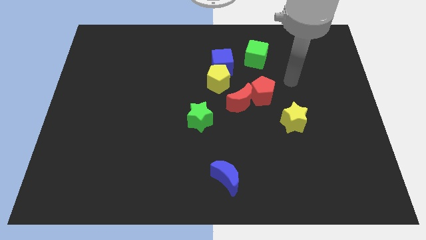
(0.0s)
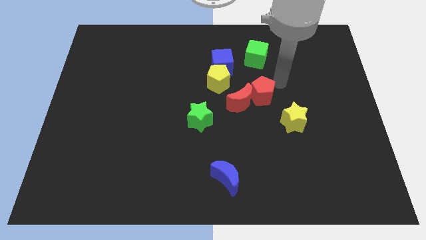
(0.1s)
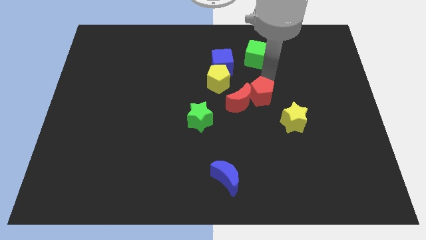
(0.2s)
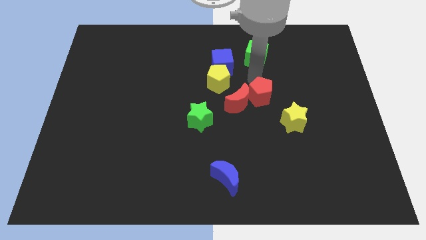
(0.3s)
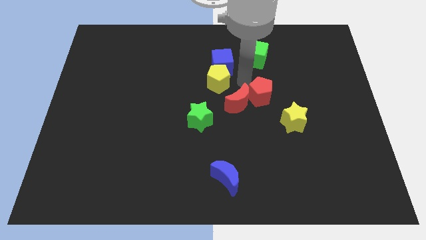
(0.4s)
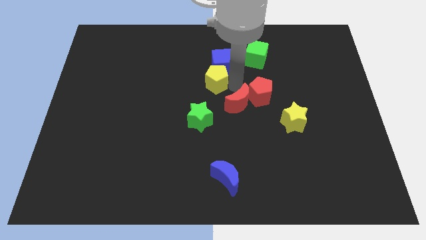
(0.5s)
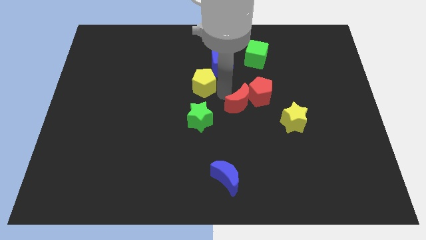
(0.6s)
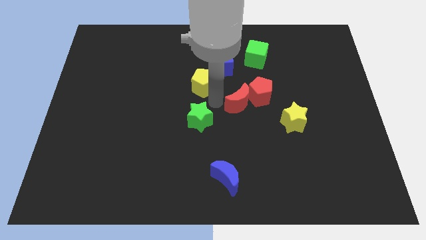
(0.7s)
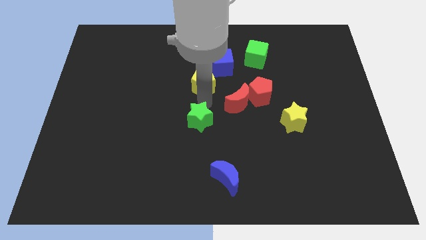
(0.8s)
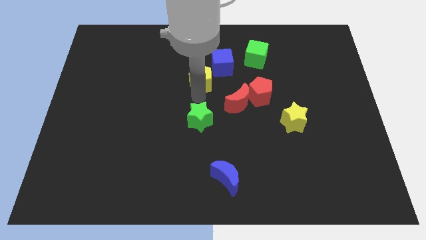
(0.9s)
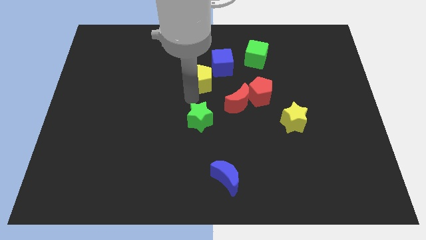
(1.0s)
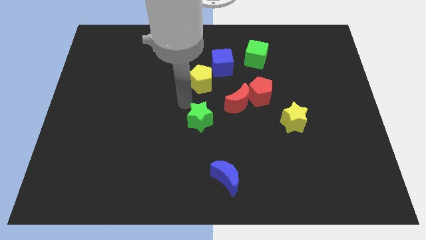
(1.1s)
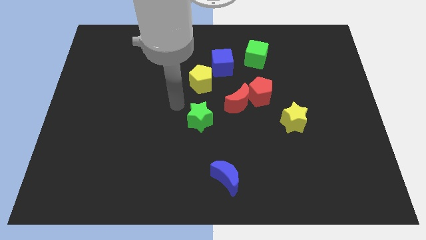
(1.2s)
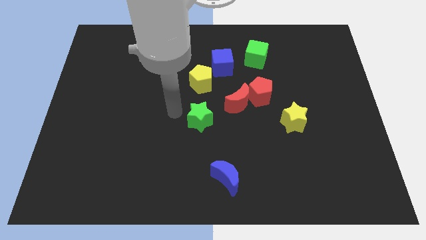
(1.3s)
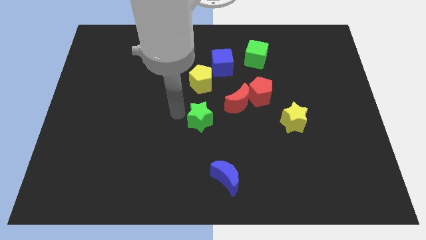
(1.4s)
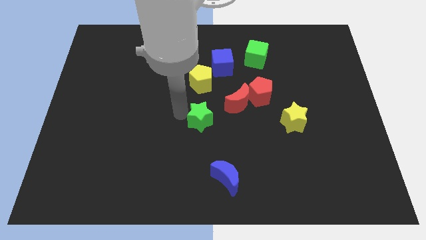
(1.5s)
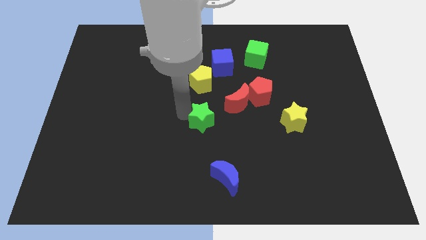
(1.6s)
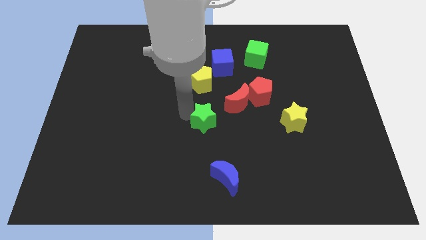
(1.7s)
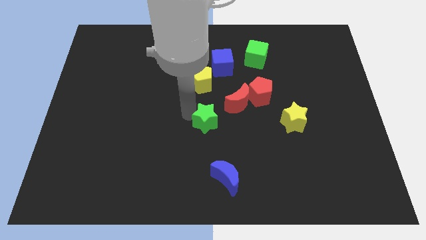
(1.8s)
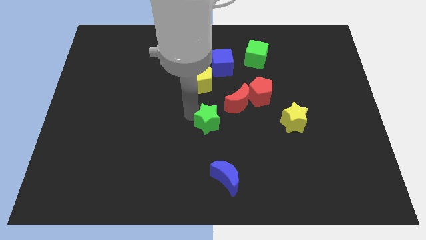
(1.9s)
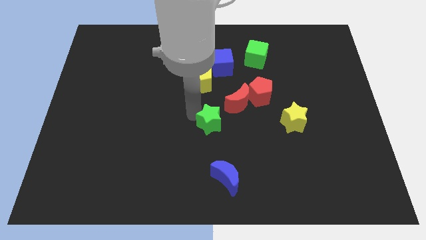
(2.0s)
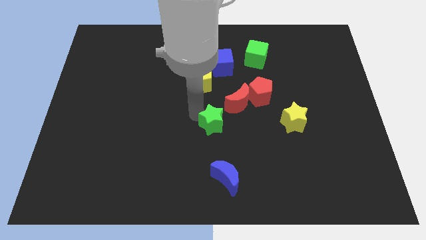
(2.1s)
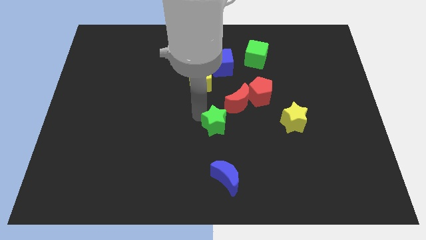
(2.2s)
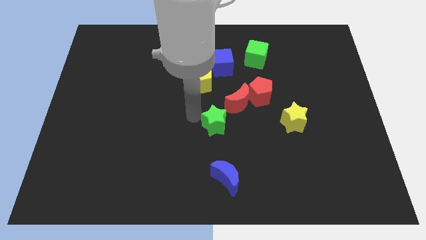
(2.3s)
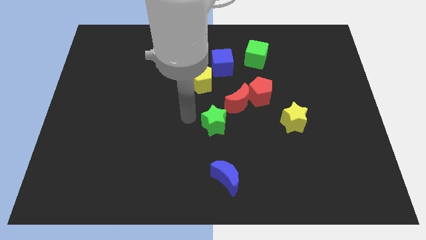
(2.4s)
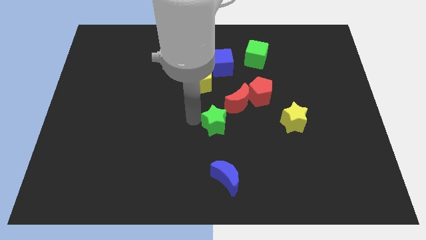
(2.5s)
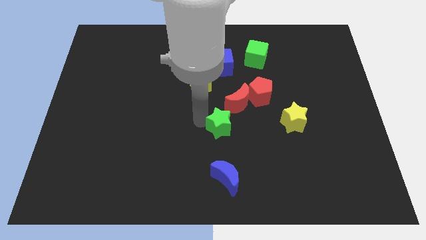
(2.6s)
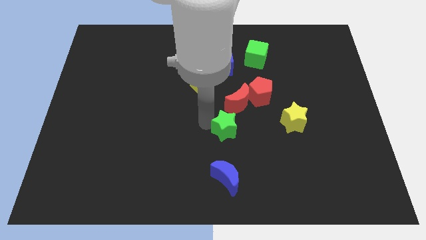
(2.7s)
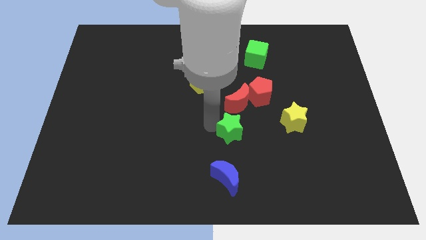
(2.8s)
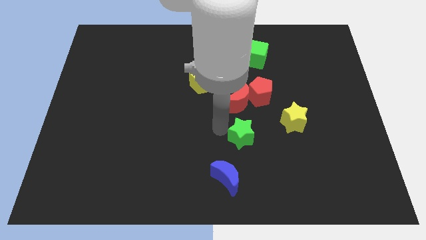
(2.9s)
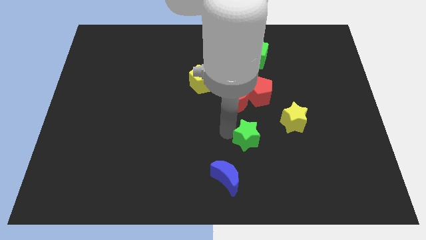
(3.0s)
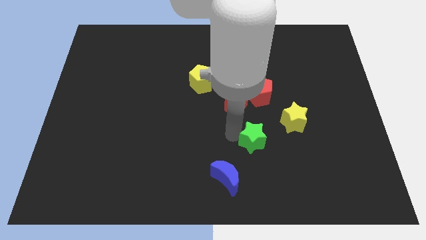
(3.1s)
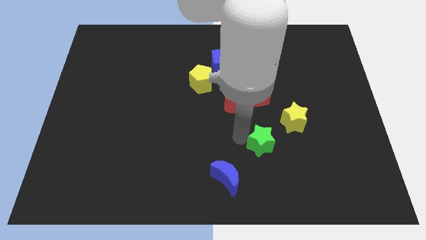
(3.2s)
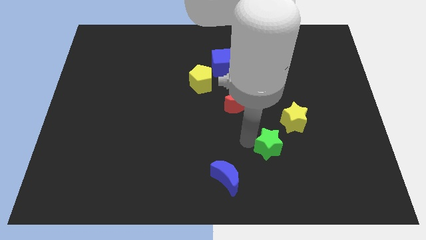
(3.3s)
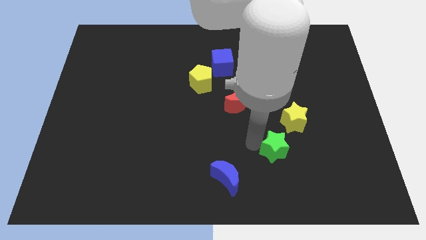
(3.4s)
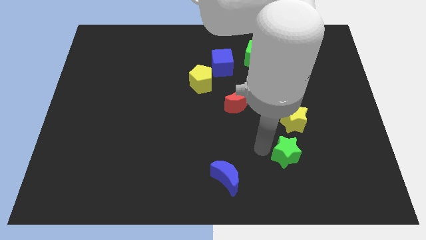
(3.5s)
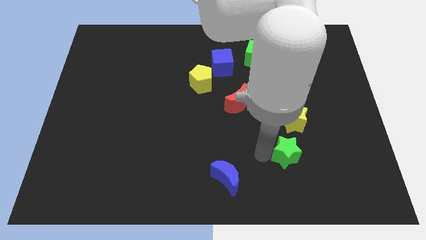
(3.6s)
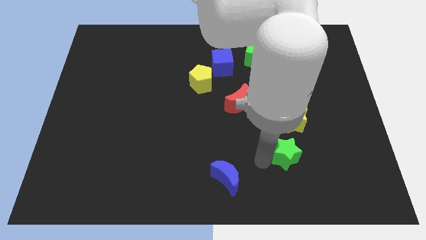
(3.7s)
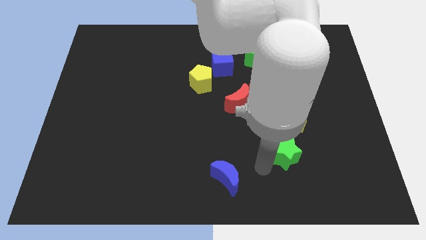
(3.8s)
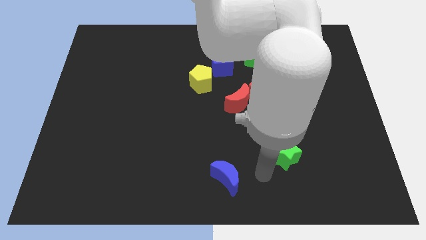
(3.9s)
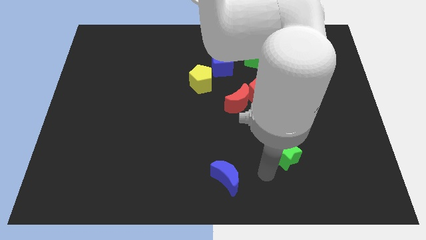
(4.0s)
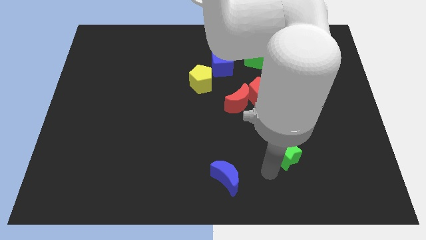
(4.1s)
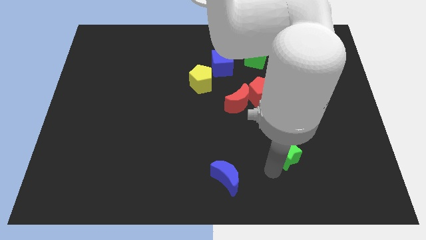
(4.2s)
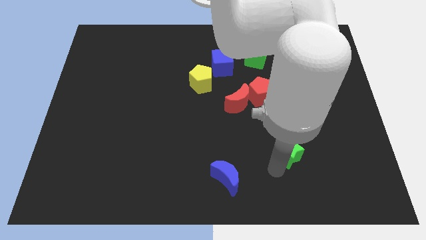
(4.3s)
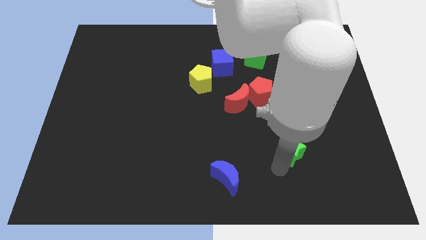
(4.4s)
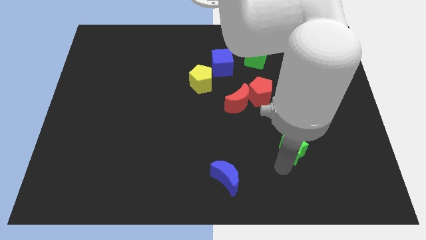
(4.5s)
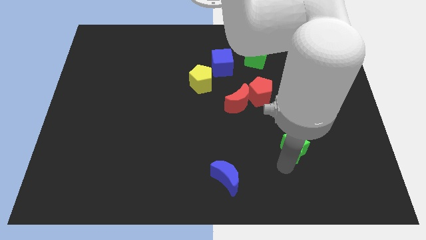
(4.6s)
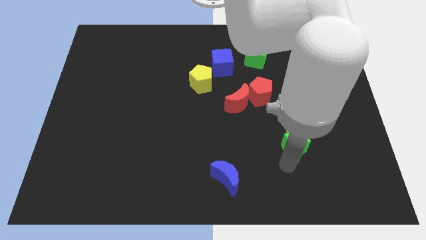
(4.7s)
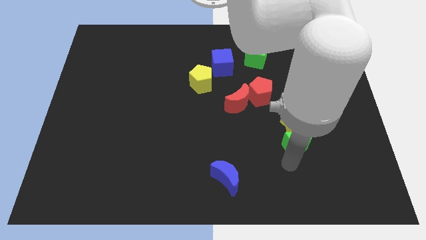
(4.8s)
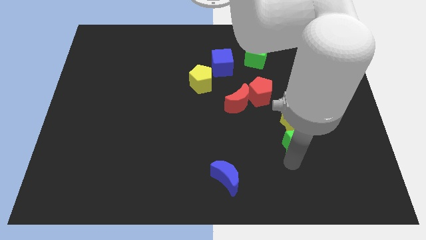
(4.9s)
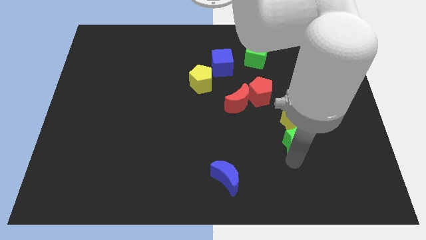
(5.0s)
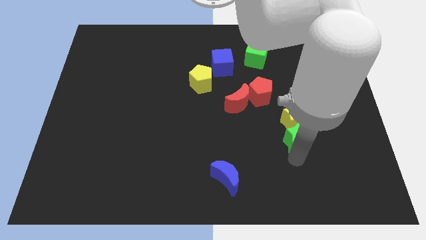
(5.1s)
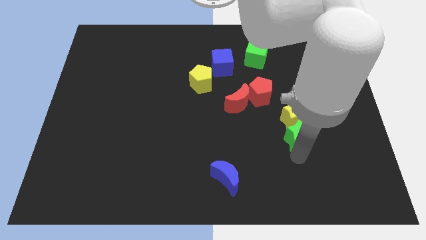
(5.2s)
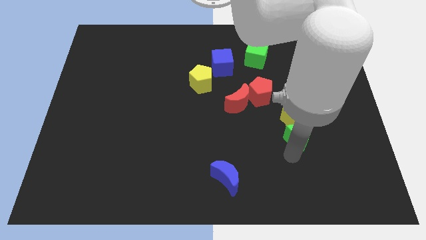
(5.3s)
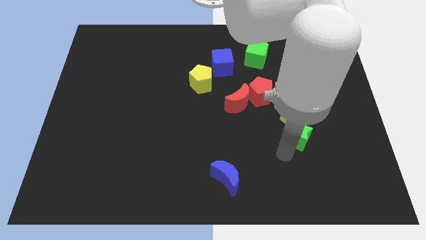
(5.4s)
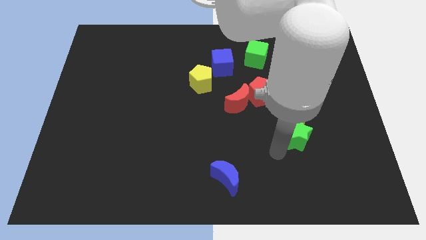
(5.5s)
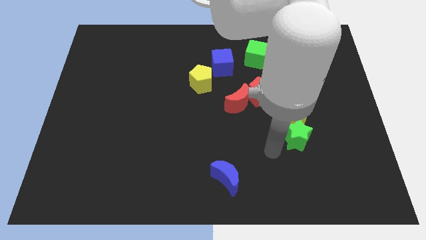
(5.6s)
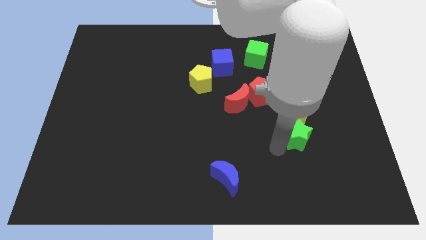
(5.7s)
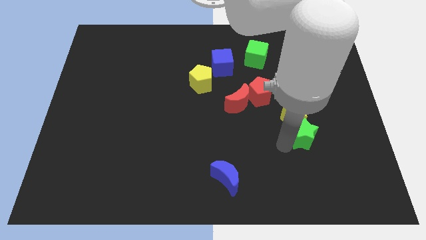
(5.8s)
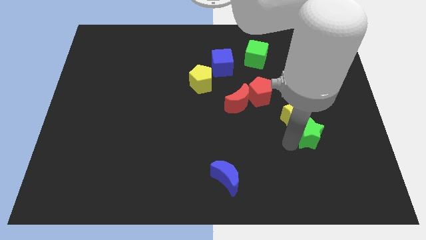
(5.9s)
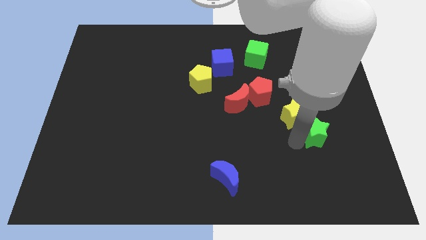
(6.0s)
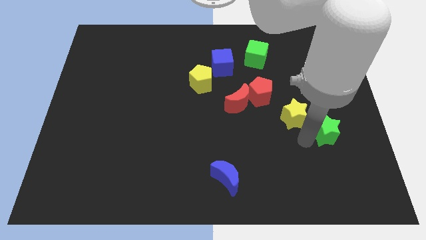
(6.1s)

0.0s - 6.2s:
slide the green star just right of the yellow star
